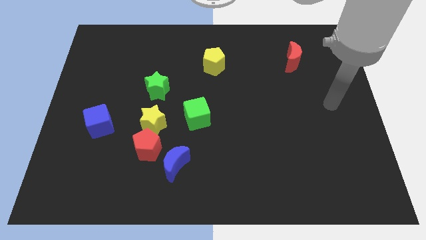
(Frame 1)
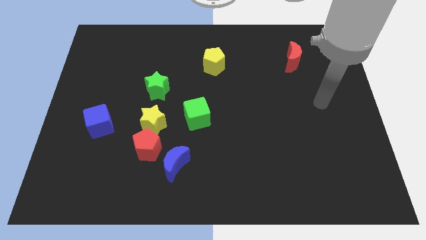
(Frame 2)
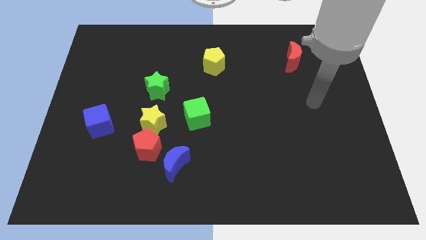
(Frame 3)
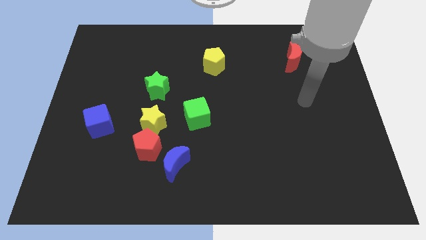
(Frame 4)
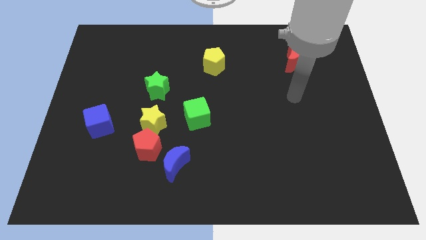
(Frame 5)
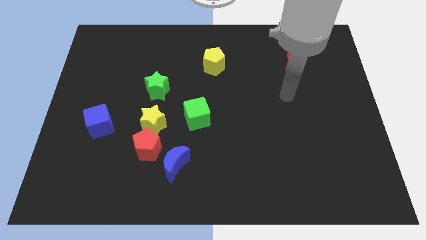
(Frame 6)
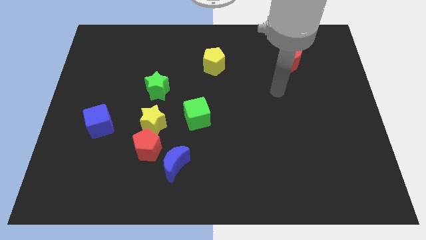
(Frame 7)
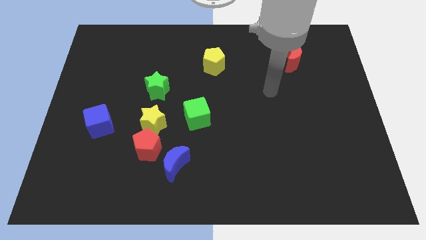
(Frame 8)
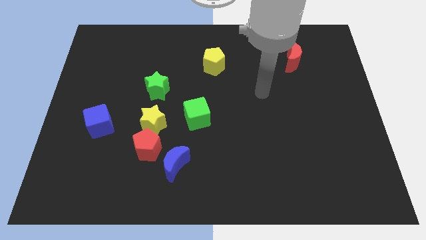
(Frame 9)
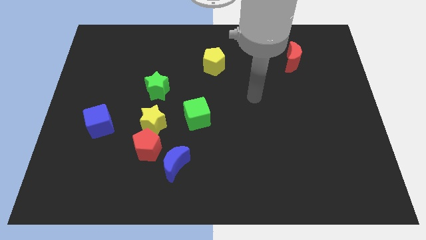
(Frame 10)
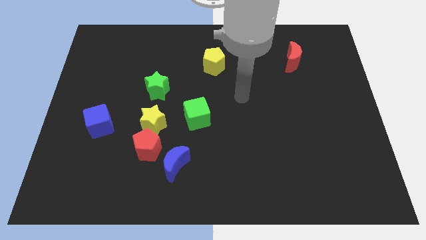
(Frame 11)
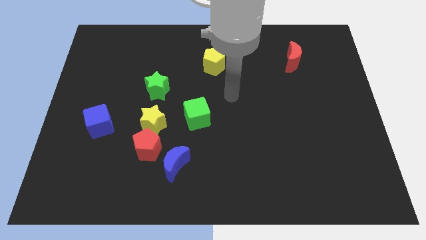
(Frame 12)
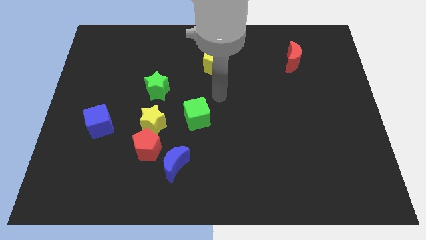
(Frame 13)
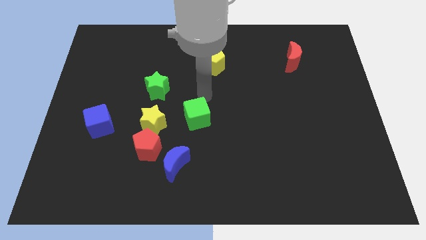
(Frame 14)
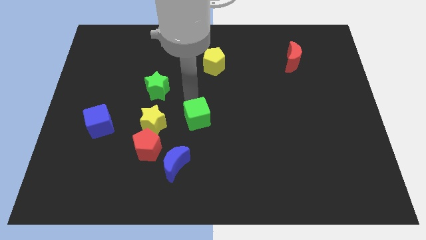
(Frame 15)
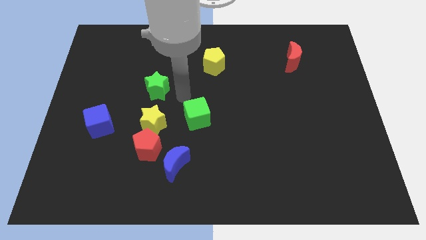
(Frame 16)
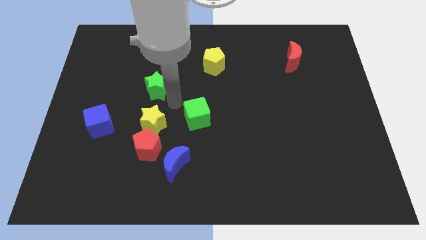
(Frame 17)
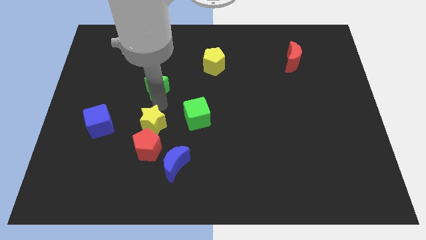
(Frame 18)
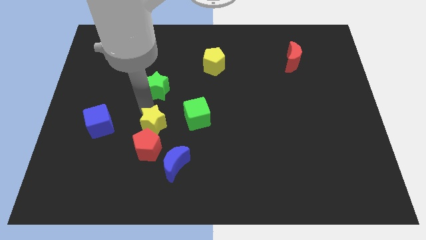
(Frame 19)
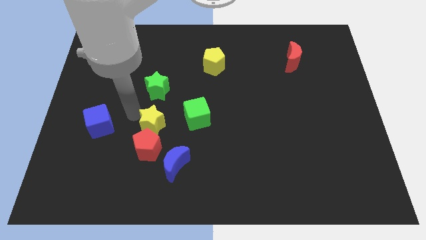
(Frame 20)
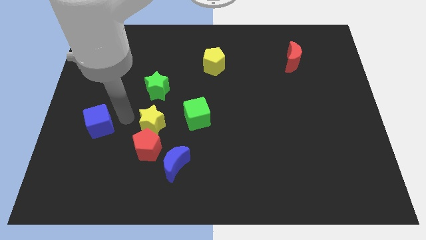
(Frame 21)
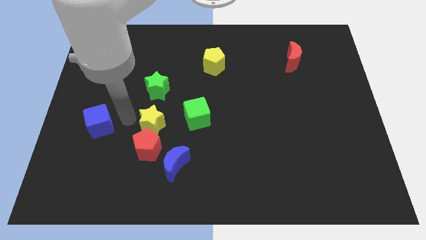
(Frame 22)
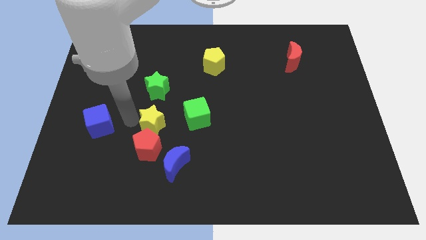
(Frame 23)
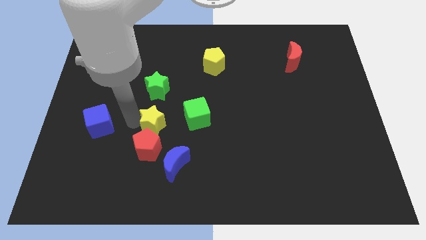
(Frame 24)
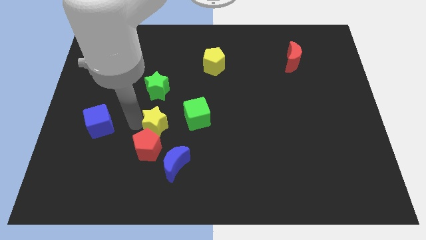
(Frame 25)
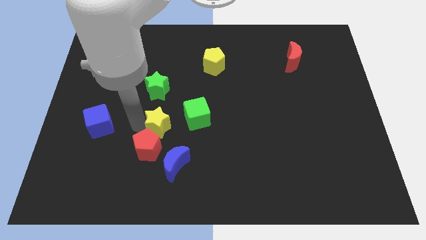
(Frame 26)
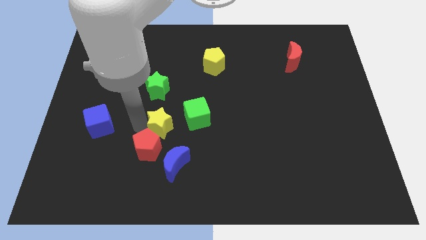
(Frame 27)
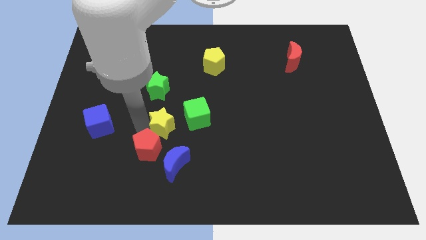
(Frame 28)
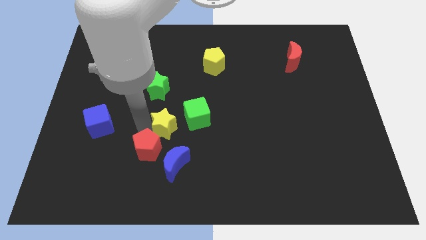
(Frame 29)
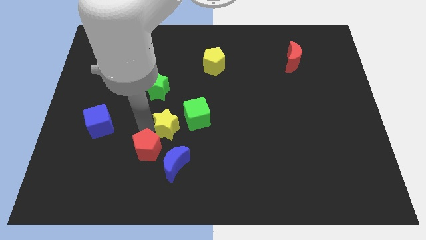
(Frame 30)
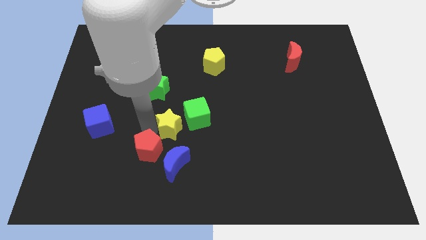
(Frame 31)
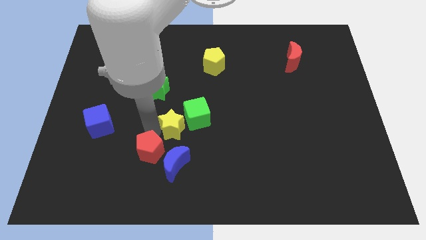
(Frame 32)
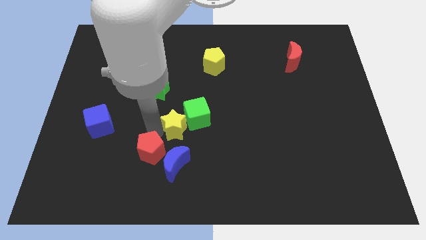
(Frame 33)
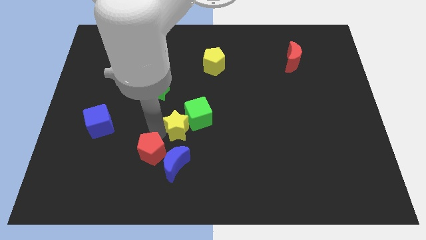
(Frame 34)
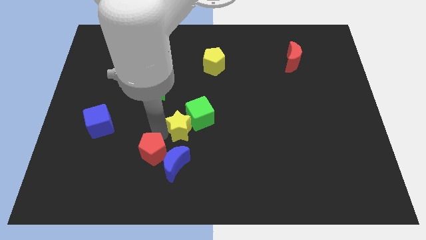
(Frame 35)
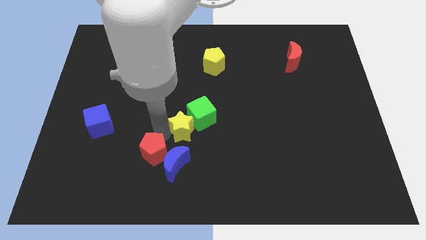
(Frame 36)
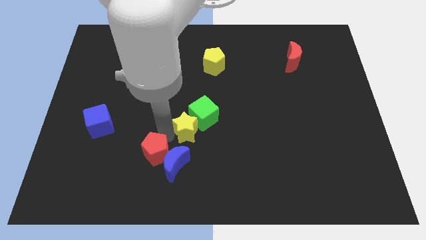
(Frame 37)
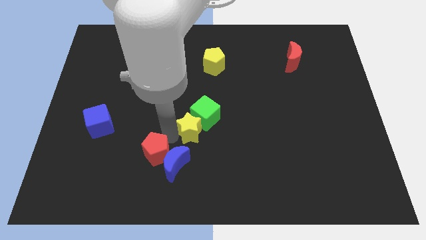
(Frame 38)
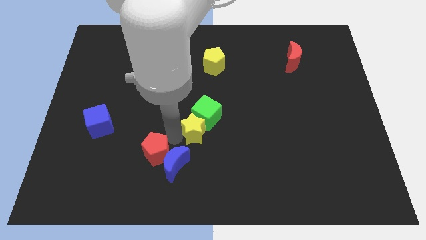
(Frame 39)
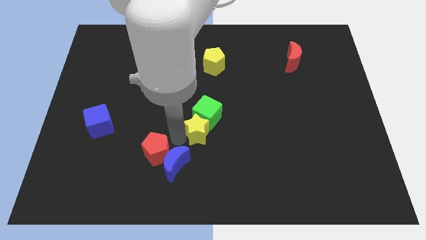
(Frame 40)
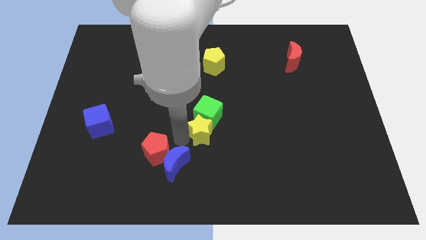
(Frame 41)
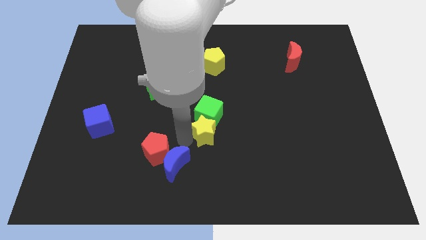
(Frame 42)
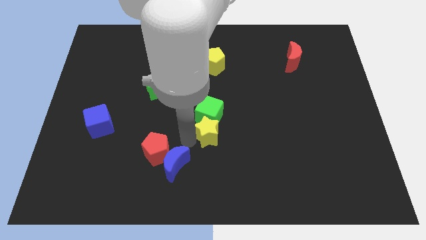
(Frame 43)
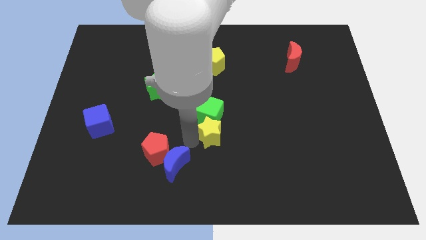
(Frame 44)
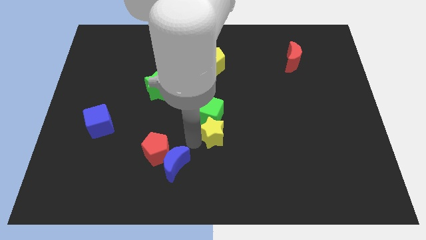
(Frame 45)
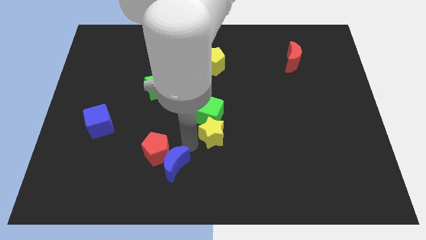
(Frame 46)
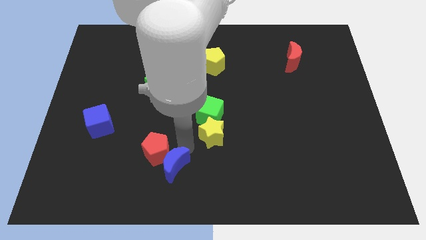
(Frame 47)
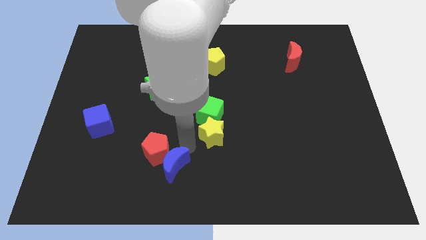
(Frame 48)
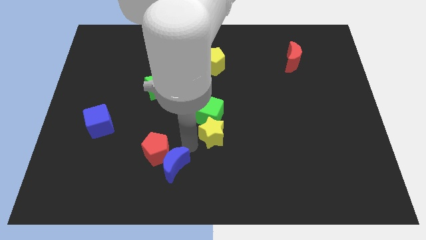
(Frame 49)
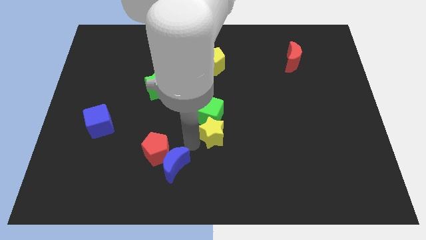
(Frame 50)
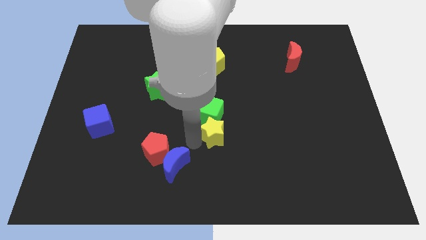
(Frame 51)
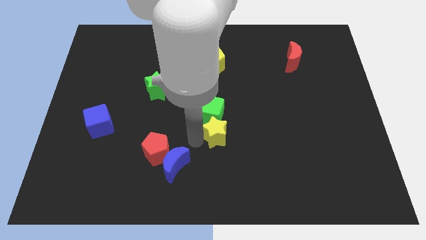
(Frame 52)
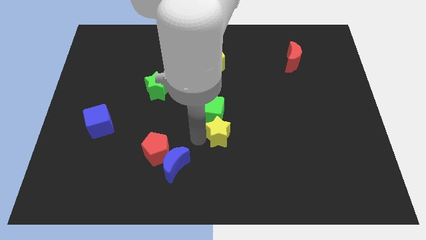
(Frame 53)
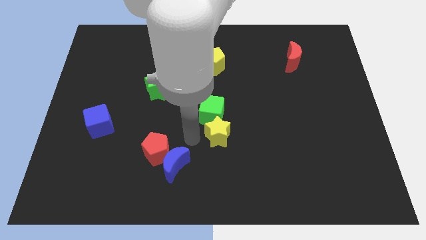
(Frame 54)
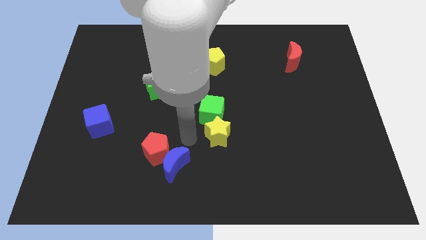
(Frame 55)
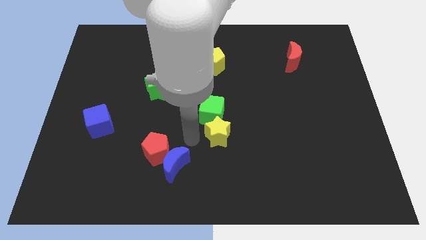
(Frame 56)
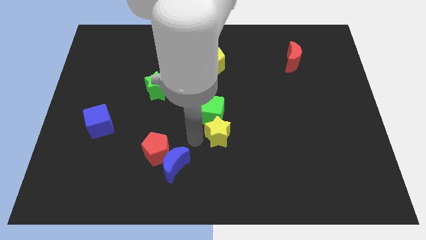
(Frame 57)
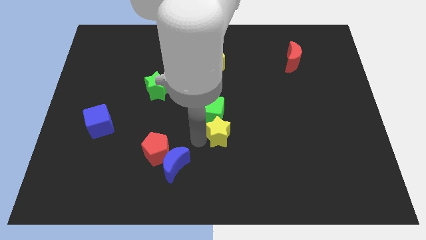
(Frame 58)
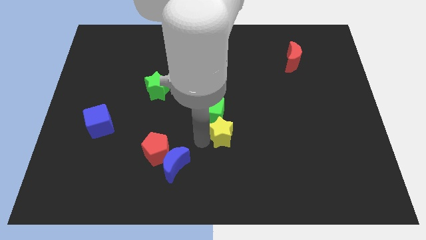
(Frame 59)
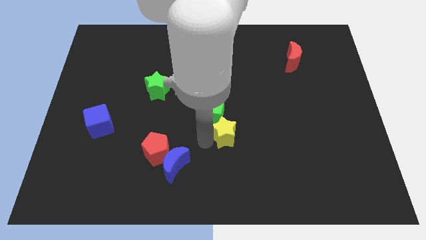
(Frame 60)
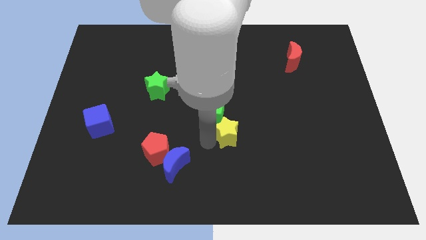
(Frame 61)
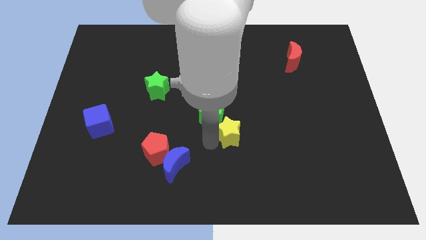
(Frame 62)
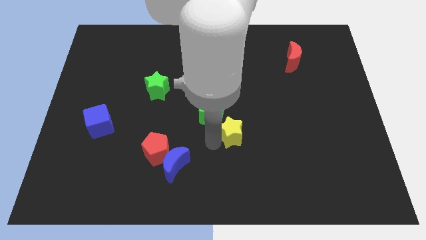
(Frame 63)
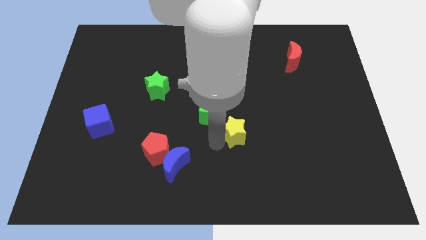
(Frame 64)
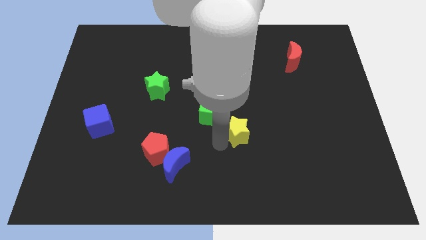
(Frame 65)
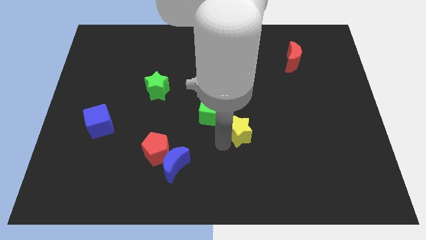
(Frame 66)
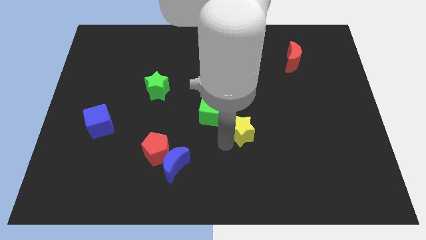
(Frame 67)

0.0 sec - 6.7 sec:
push the yellow star to the right

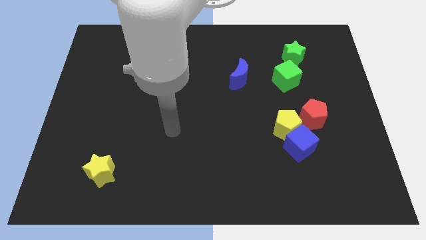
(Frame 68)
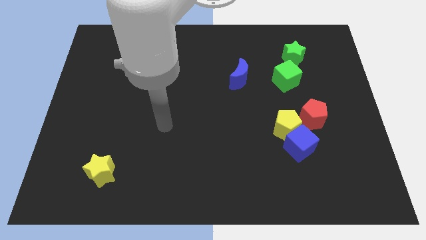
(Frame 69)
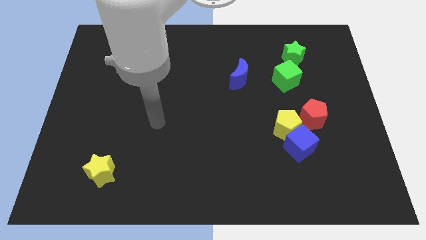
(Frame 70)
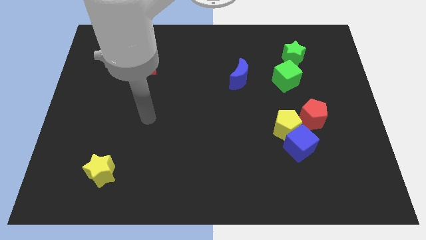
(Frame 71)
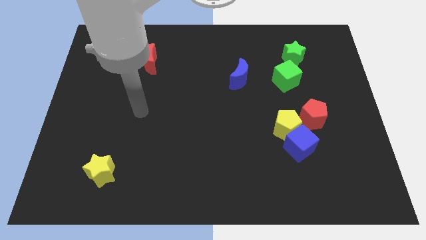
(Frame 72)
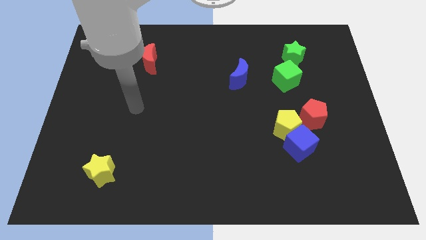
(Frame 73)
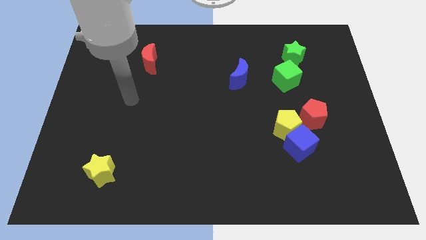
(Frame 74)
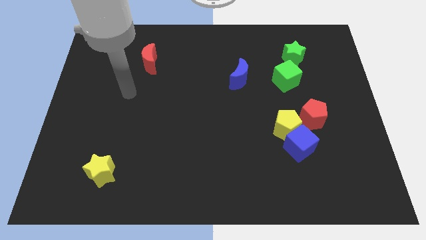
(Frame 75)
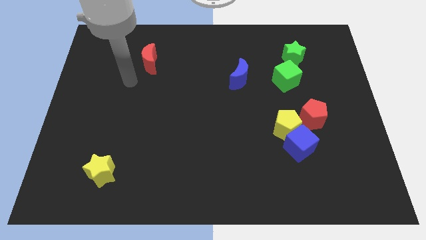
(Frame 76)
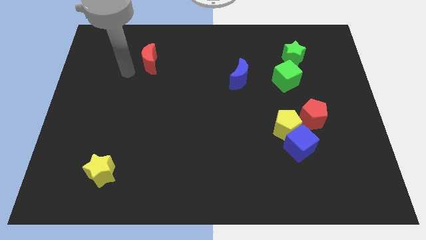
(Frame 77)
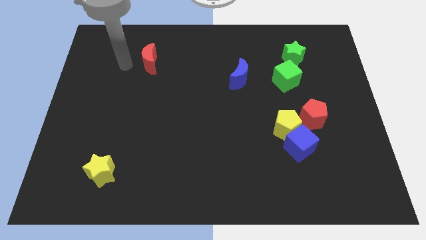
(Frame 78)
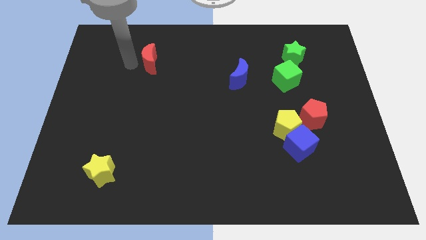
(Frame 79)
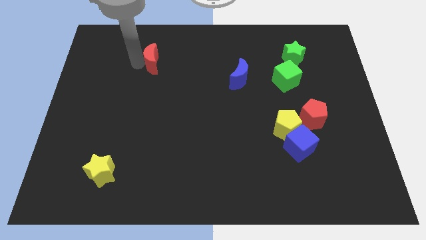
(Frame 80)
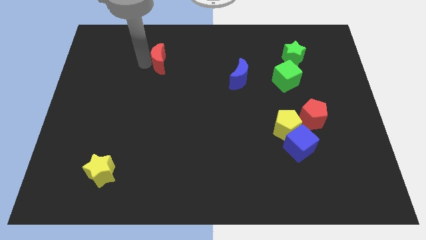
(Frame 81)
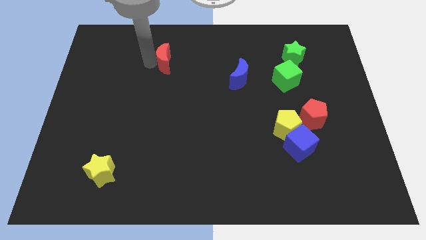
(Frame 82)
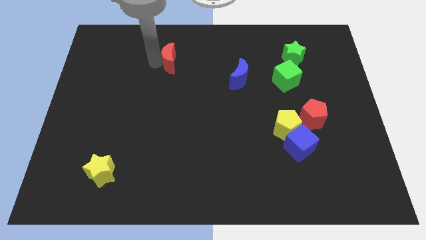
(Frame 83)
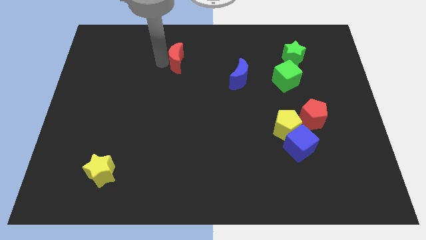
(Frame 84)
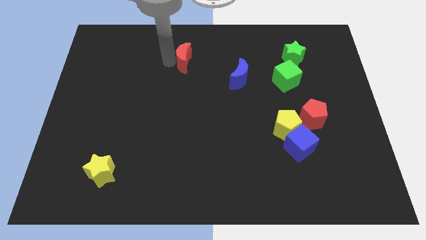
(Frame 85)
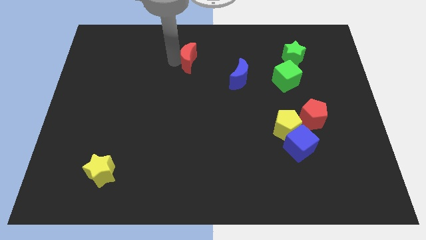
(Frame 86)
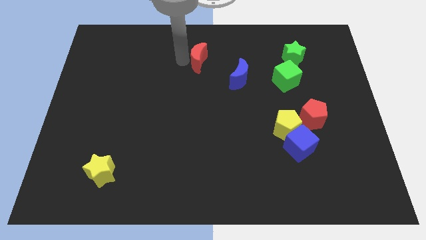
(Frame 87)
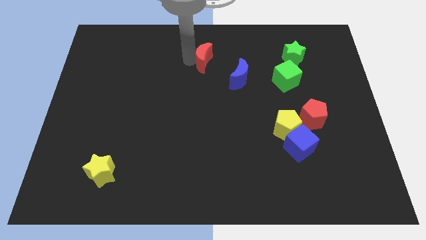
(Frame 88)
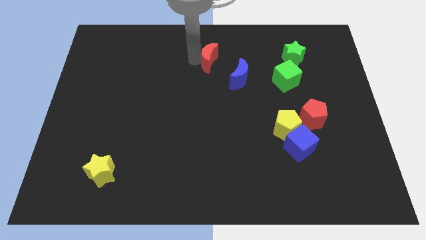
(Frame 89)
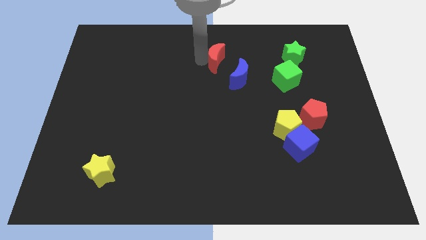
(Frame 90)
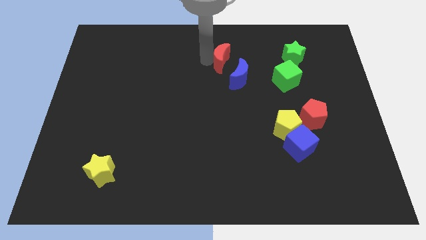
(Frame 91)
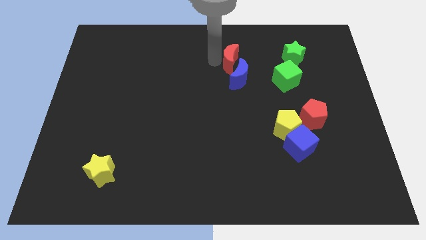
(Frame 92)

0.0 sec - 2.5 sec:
push the red moon to the right
